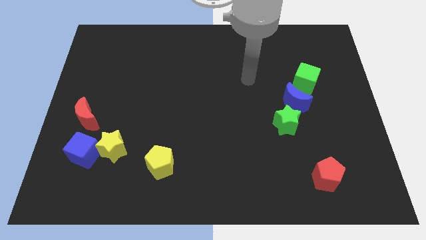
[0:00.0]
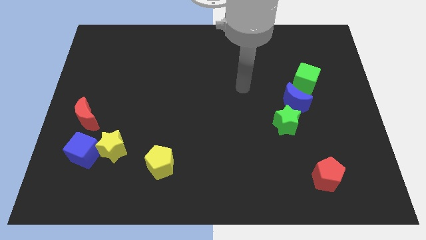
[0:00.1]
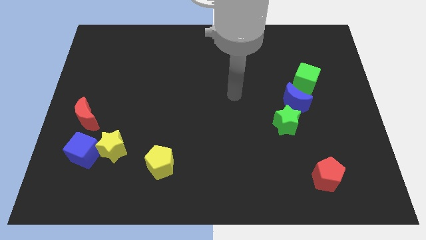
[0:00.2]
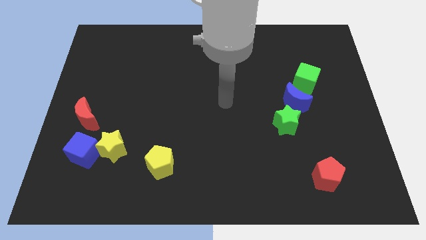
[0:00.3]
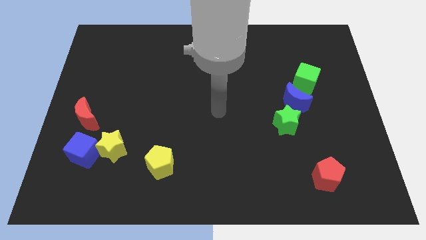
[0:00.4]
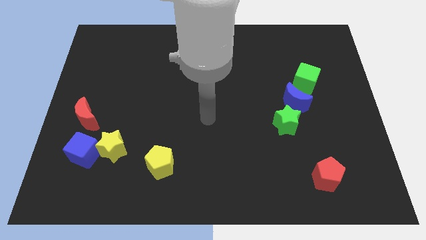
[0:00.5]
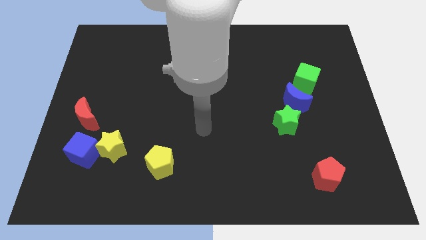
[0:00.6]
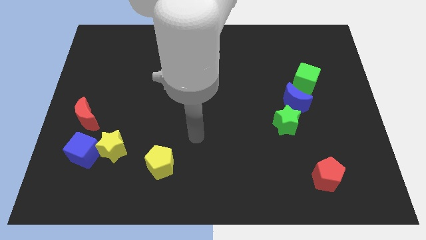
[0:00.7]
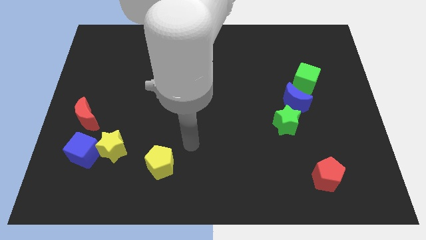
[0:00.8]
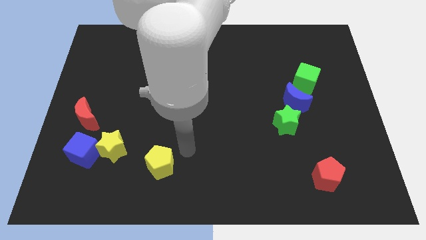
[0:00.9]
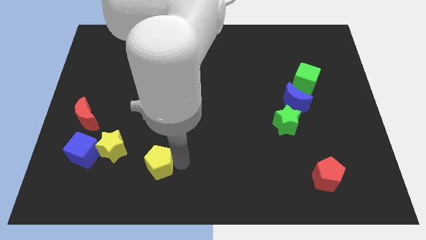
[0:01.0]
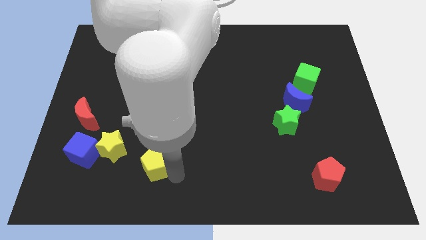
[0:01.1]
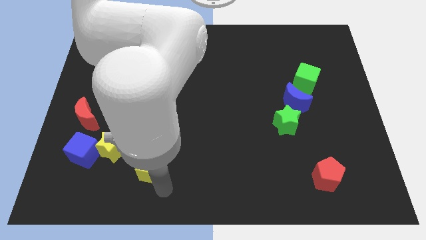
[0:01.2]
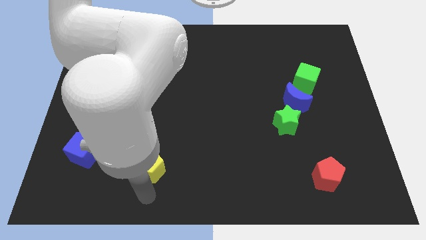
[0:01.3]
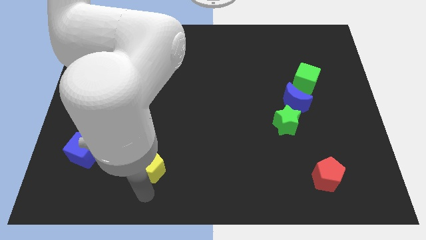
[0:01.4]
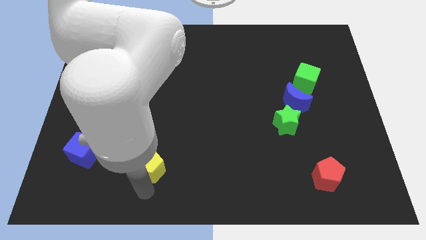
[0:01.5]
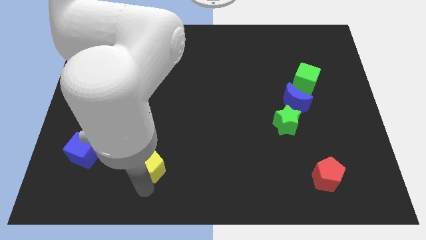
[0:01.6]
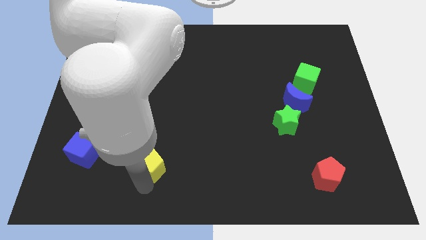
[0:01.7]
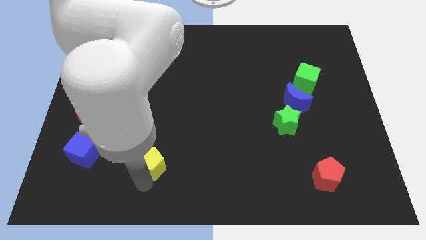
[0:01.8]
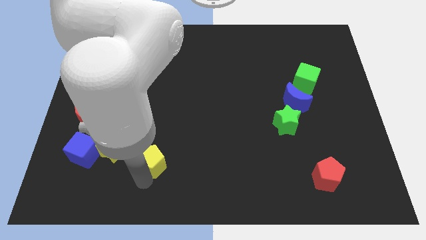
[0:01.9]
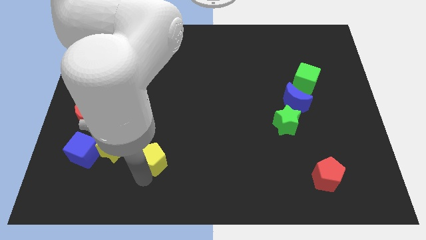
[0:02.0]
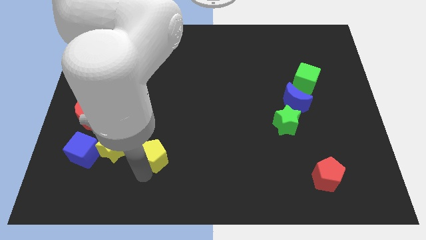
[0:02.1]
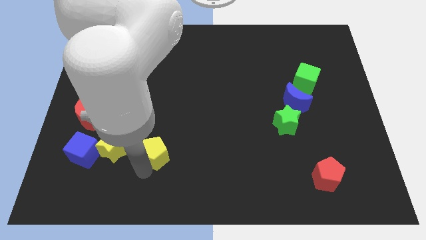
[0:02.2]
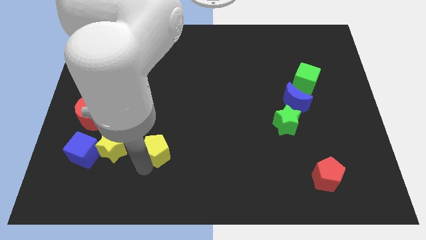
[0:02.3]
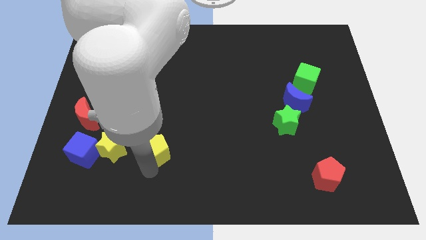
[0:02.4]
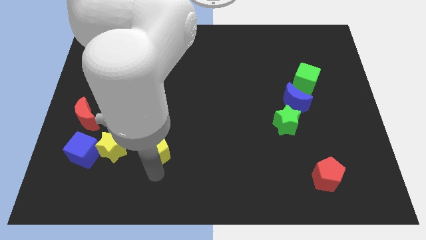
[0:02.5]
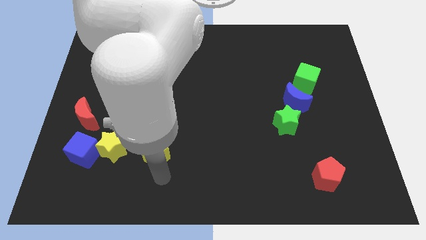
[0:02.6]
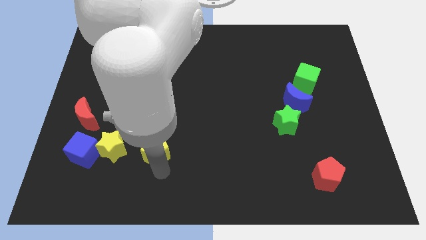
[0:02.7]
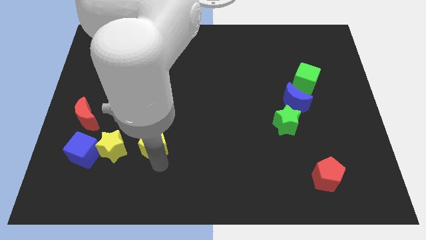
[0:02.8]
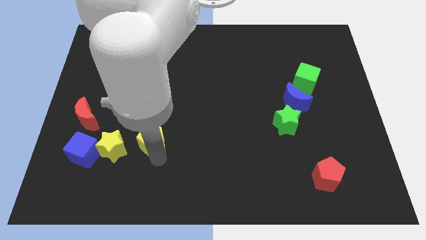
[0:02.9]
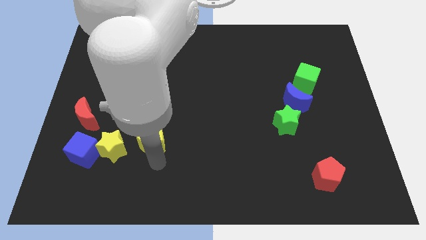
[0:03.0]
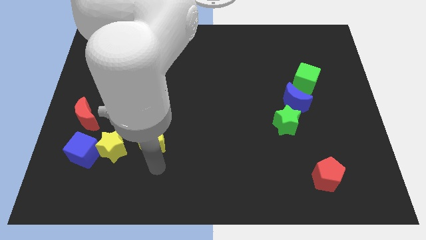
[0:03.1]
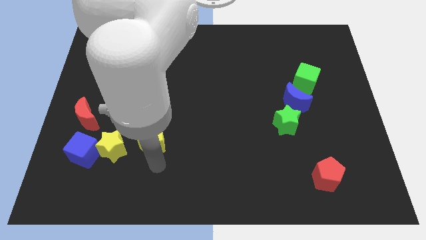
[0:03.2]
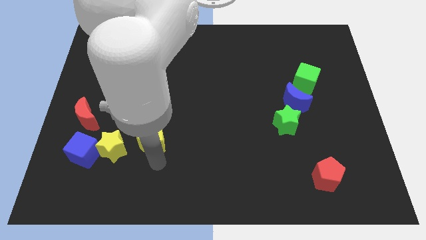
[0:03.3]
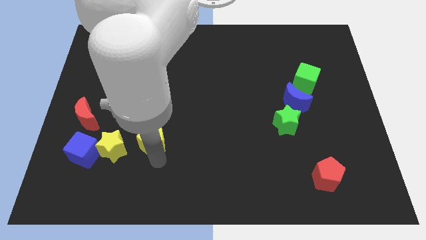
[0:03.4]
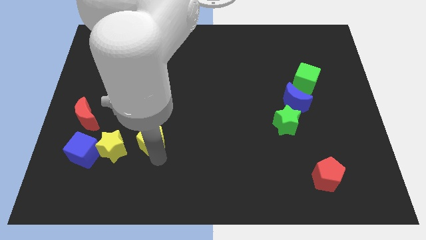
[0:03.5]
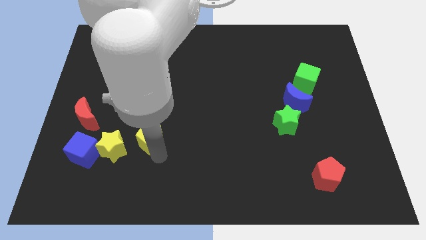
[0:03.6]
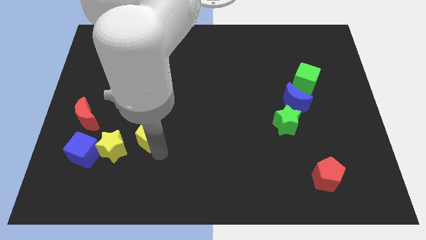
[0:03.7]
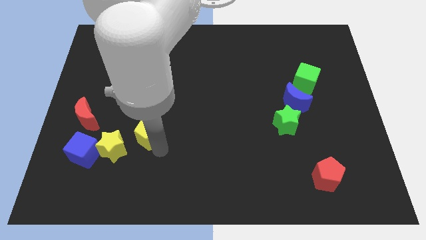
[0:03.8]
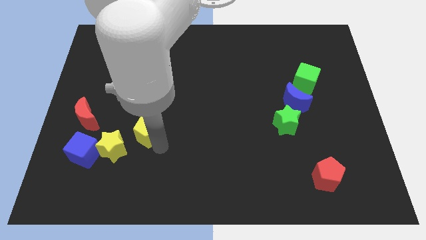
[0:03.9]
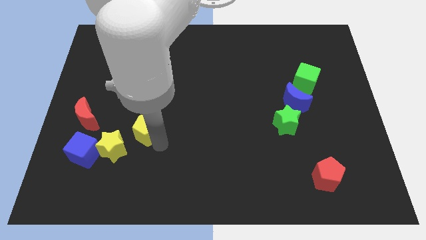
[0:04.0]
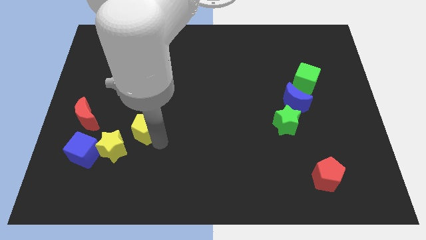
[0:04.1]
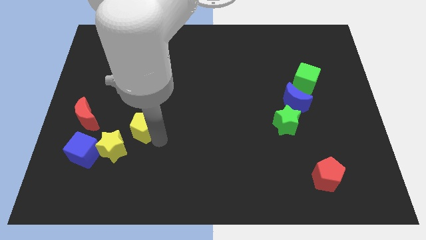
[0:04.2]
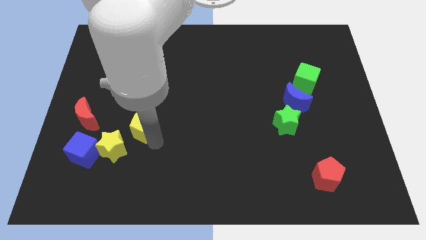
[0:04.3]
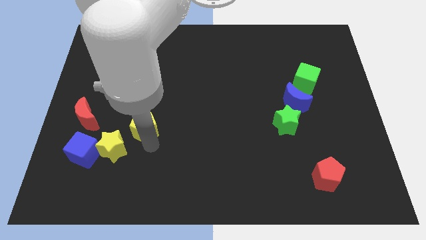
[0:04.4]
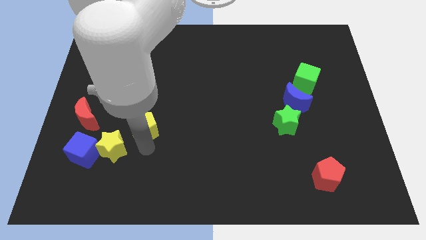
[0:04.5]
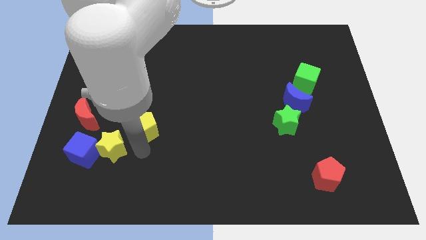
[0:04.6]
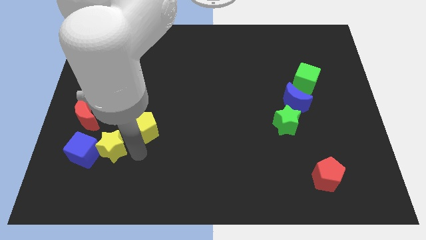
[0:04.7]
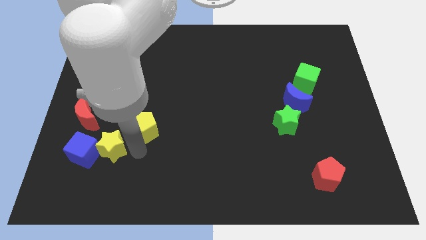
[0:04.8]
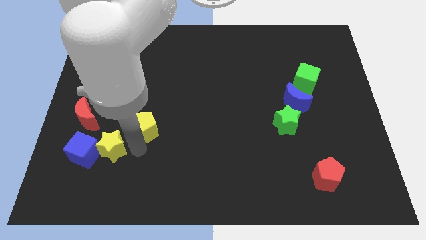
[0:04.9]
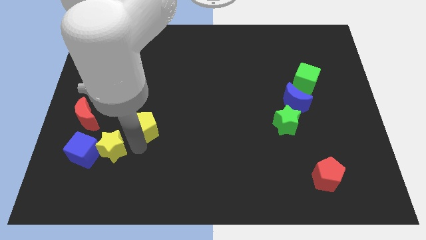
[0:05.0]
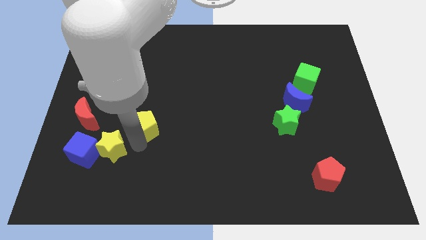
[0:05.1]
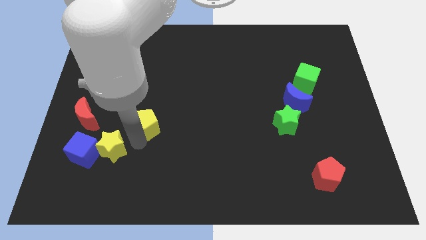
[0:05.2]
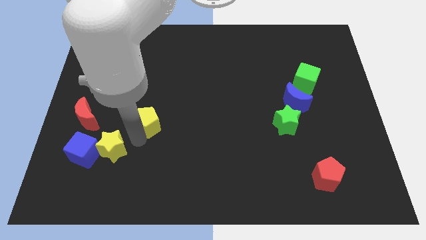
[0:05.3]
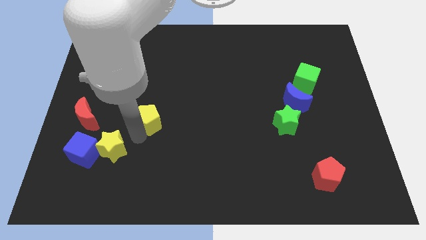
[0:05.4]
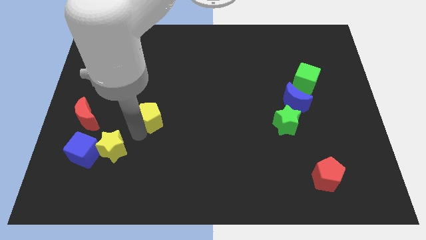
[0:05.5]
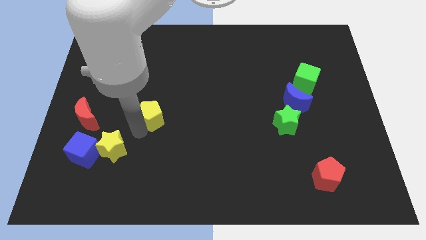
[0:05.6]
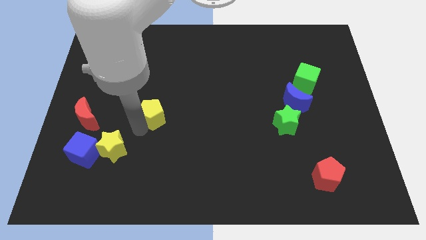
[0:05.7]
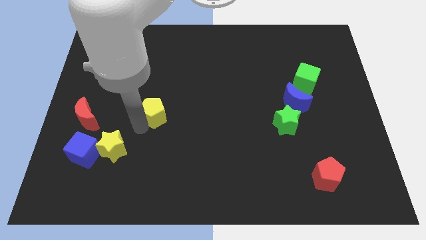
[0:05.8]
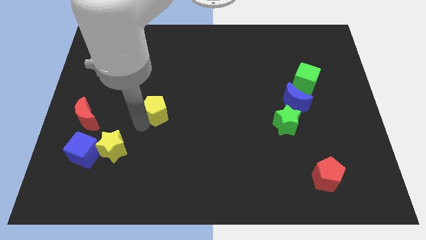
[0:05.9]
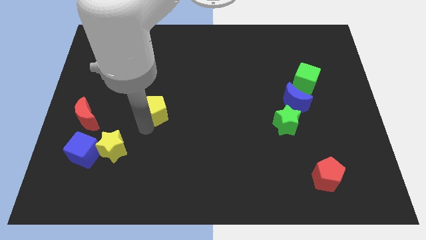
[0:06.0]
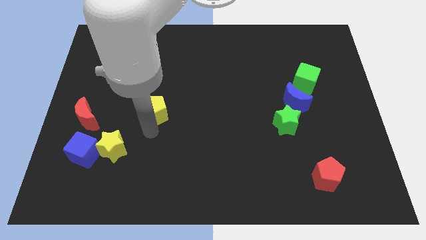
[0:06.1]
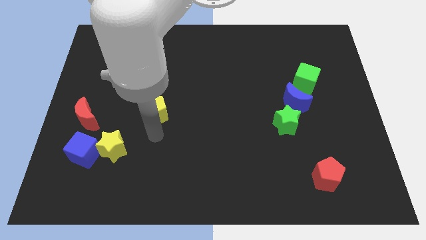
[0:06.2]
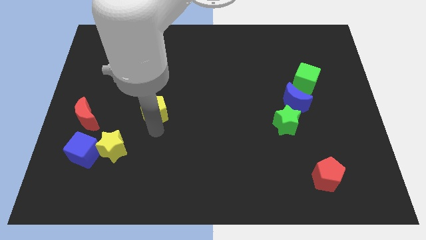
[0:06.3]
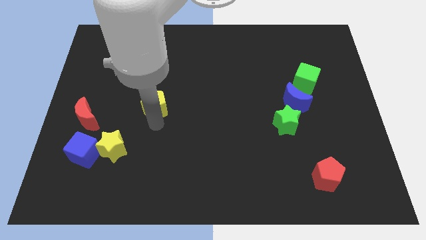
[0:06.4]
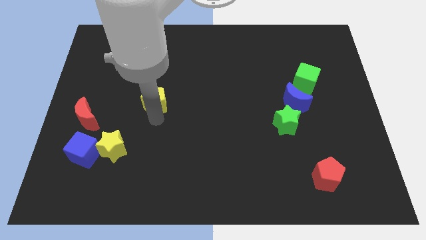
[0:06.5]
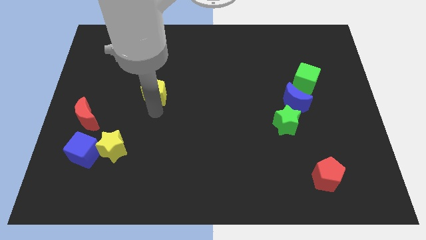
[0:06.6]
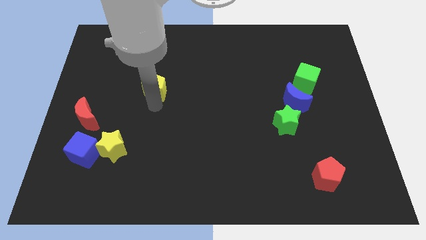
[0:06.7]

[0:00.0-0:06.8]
move the yellow pentagon up

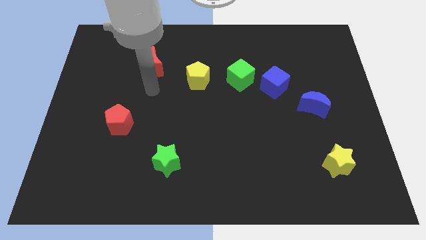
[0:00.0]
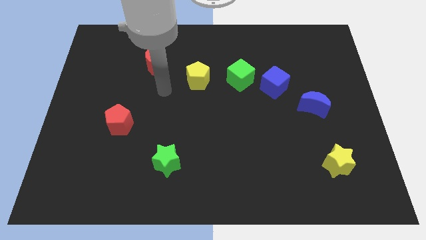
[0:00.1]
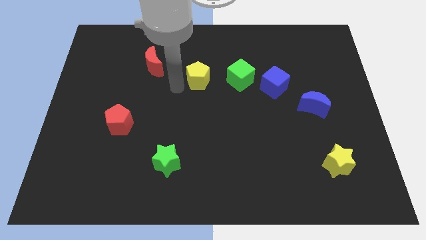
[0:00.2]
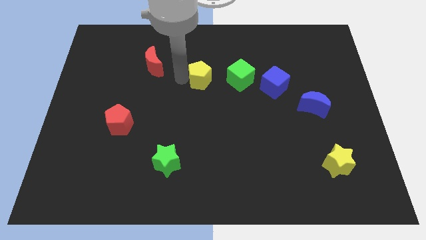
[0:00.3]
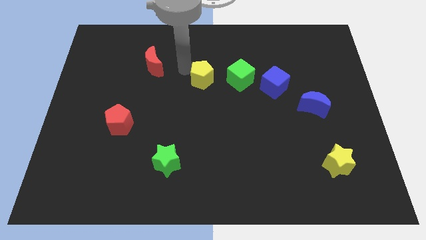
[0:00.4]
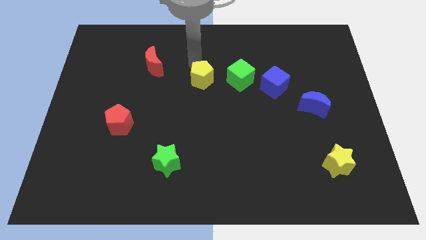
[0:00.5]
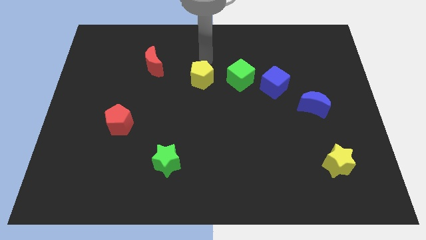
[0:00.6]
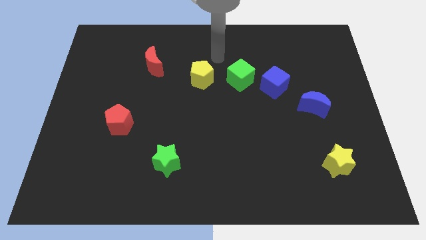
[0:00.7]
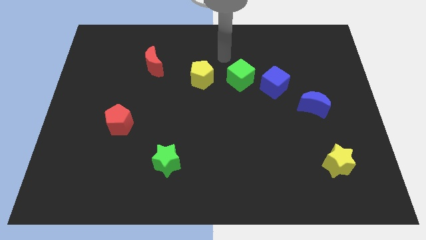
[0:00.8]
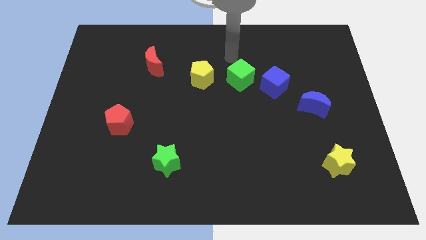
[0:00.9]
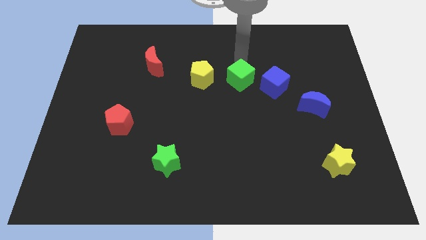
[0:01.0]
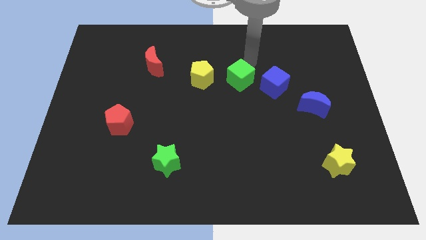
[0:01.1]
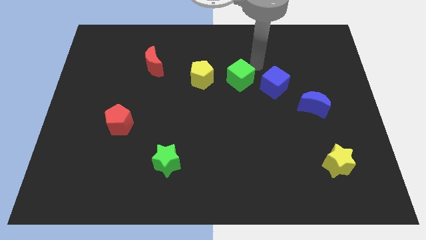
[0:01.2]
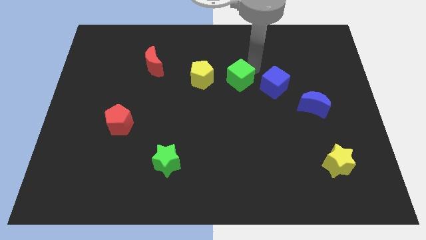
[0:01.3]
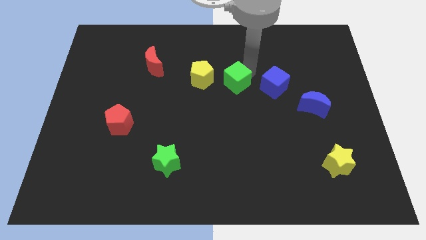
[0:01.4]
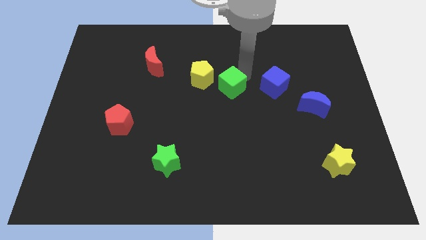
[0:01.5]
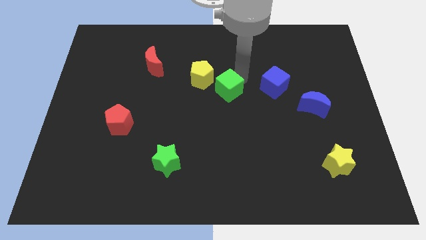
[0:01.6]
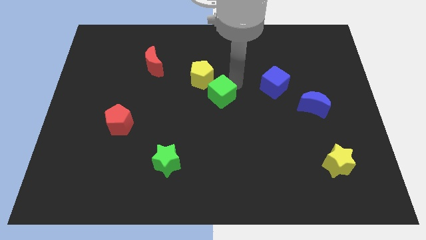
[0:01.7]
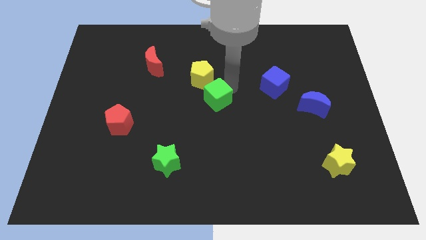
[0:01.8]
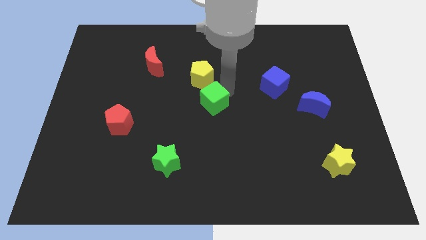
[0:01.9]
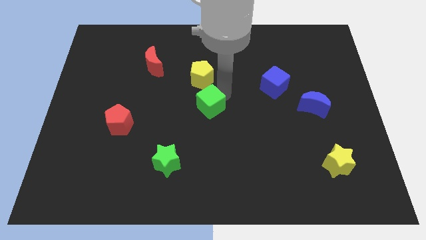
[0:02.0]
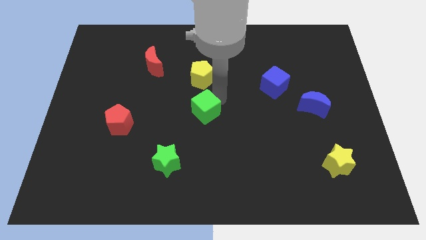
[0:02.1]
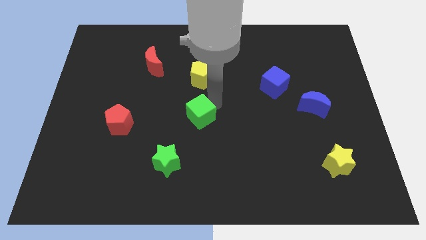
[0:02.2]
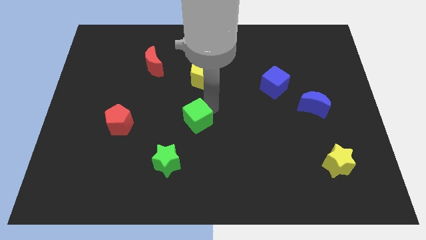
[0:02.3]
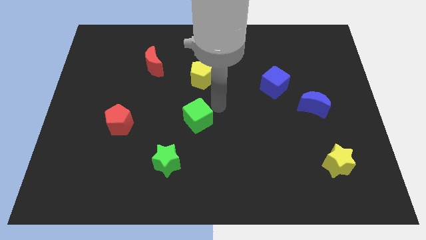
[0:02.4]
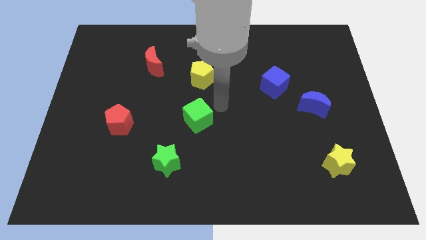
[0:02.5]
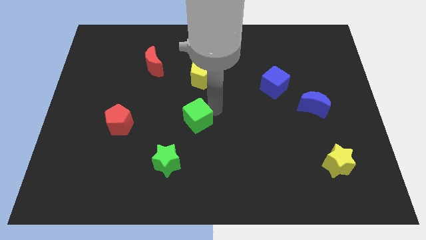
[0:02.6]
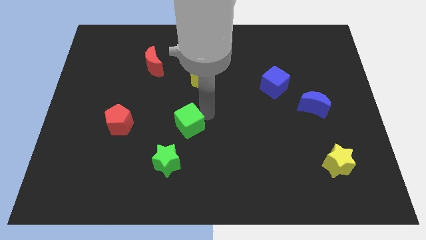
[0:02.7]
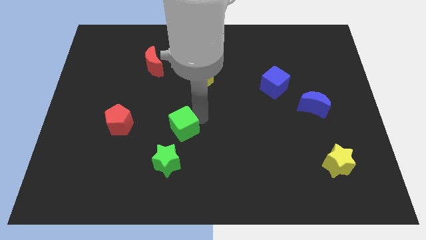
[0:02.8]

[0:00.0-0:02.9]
move the green cube diagonally downwards and left
